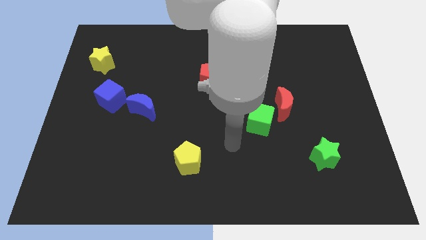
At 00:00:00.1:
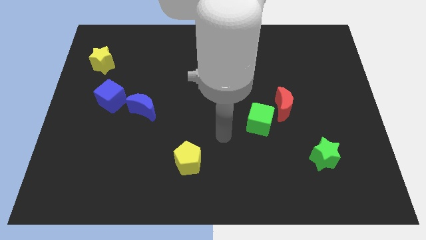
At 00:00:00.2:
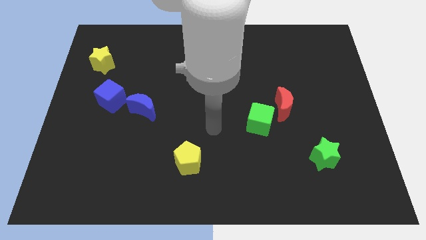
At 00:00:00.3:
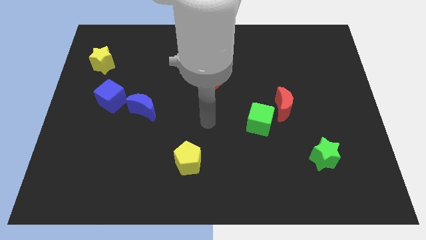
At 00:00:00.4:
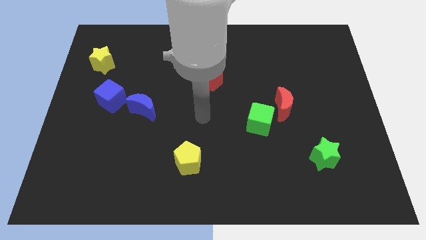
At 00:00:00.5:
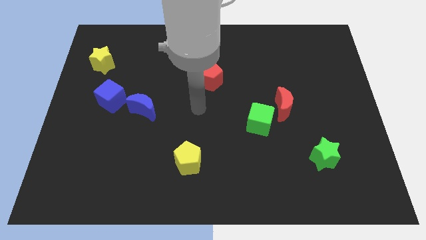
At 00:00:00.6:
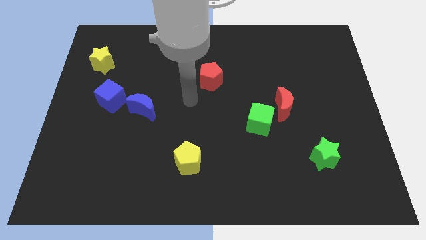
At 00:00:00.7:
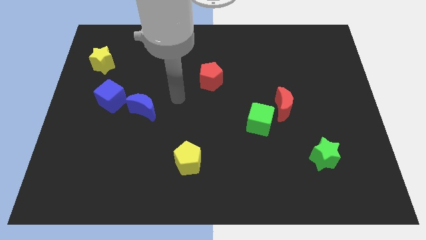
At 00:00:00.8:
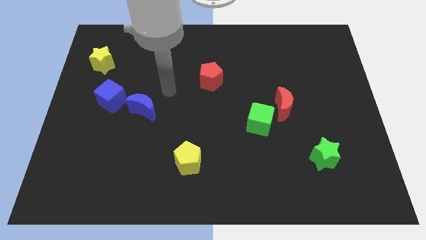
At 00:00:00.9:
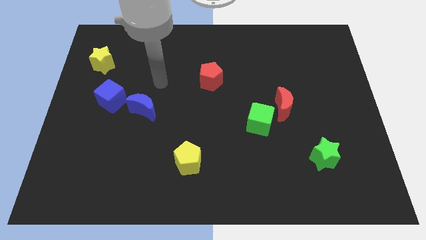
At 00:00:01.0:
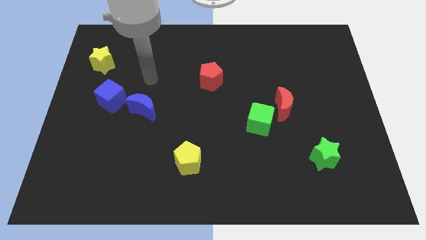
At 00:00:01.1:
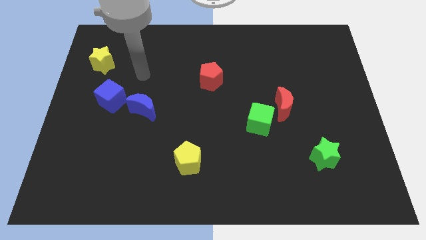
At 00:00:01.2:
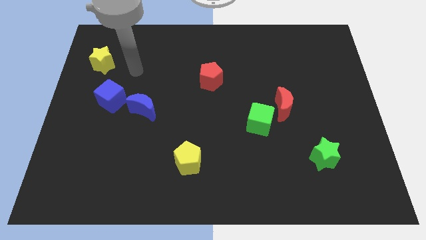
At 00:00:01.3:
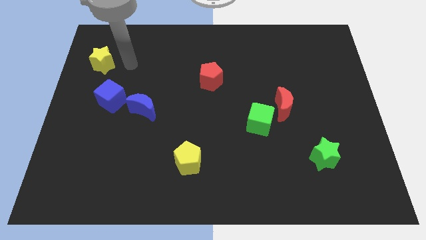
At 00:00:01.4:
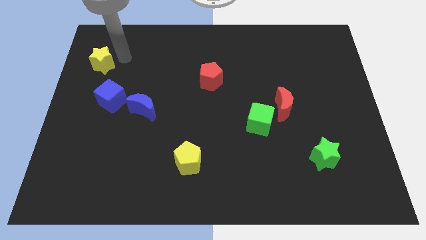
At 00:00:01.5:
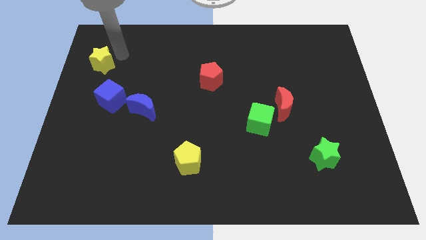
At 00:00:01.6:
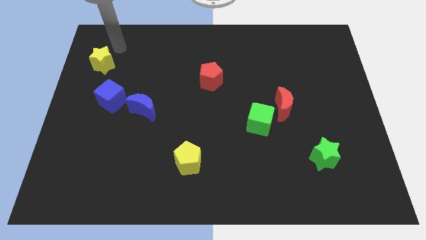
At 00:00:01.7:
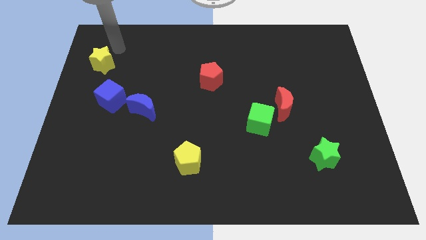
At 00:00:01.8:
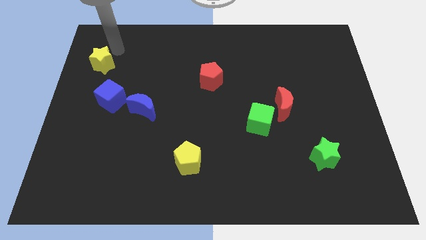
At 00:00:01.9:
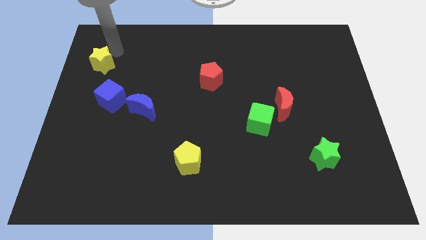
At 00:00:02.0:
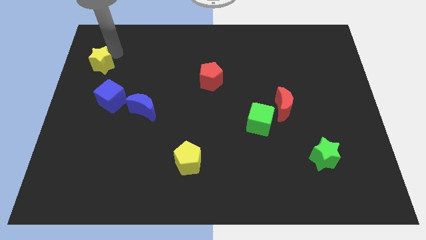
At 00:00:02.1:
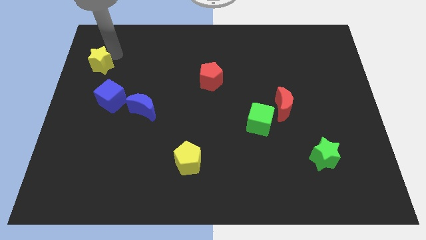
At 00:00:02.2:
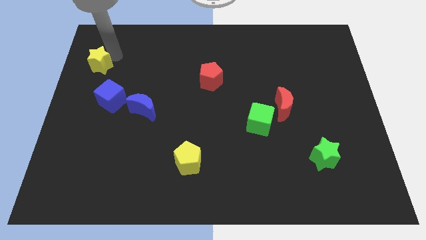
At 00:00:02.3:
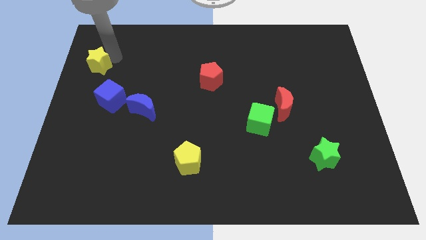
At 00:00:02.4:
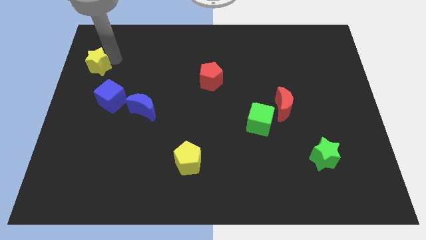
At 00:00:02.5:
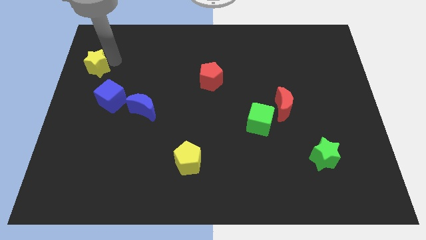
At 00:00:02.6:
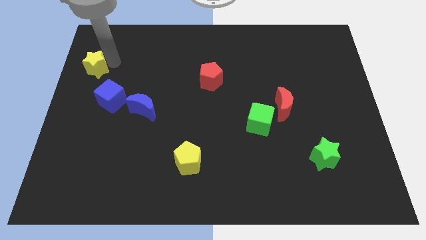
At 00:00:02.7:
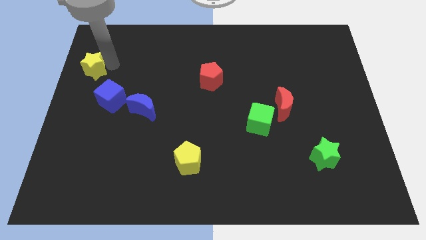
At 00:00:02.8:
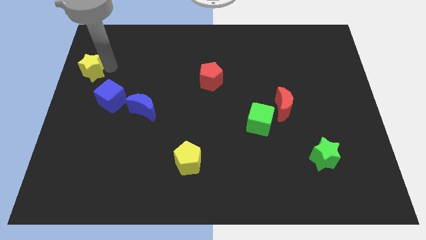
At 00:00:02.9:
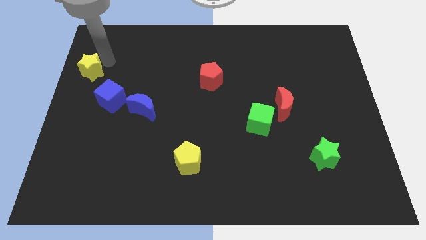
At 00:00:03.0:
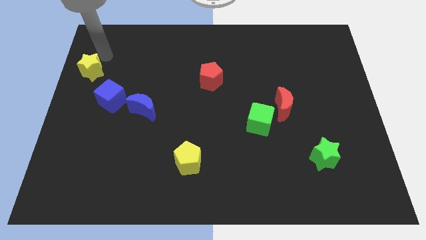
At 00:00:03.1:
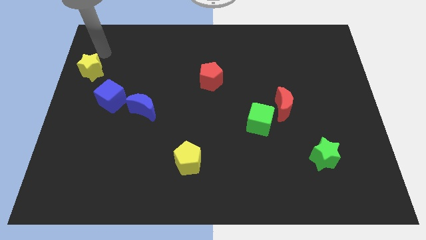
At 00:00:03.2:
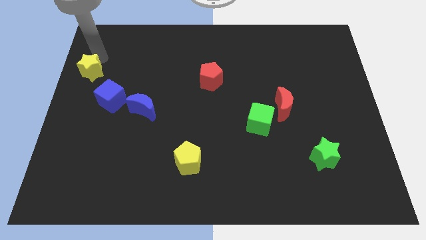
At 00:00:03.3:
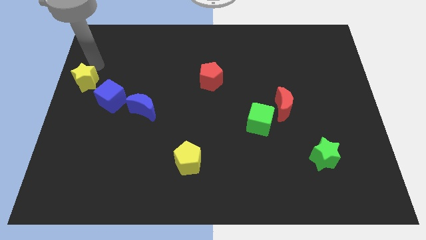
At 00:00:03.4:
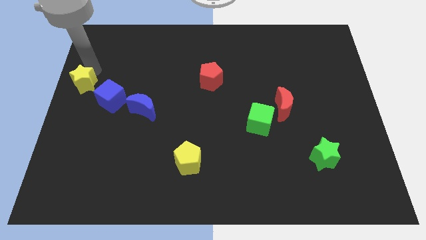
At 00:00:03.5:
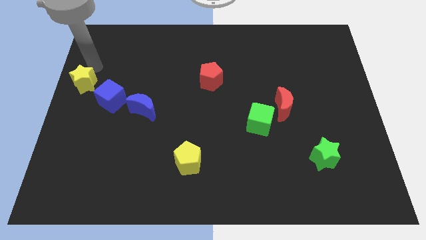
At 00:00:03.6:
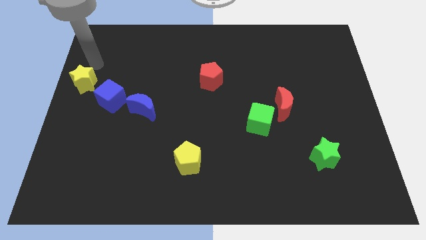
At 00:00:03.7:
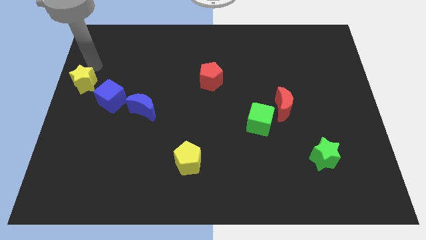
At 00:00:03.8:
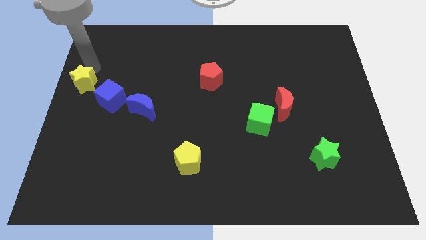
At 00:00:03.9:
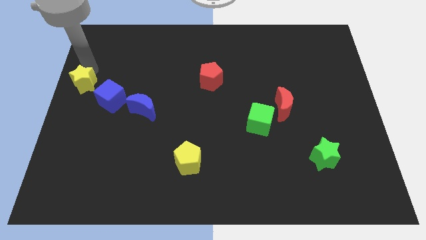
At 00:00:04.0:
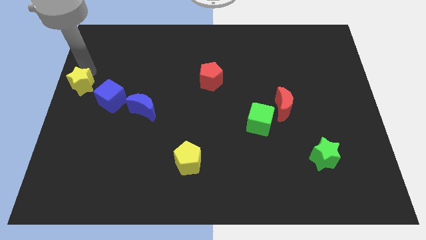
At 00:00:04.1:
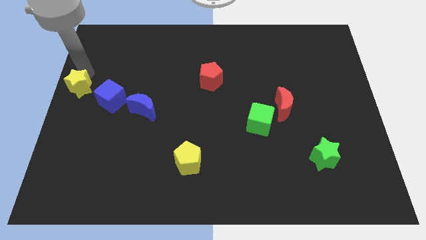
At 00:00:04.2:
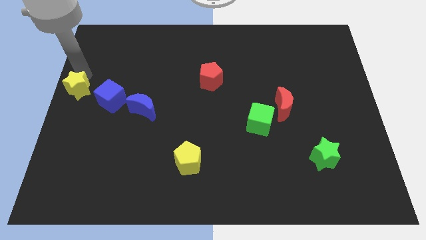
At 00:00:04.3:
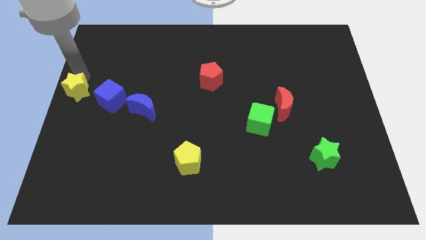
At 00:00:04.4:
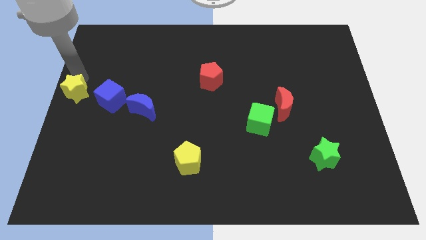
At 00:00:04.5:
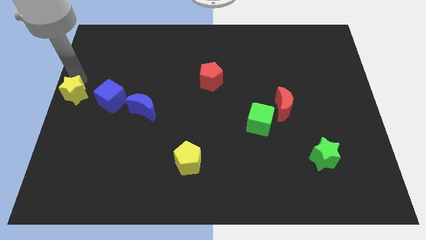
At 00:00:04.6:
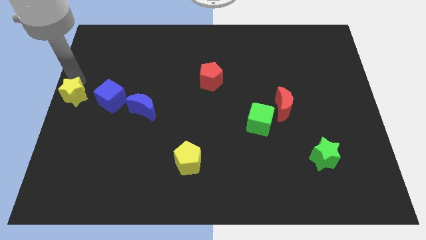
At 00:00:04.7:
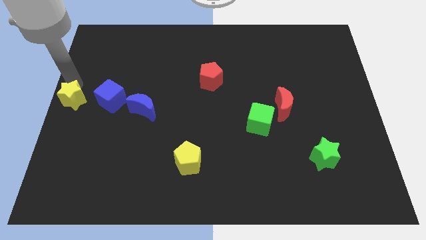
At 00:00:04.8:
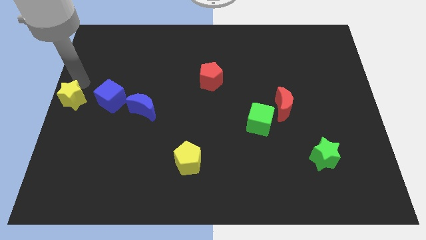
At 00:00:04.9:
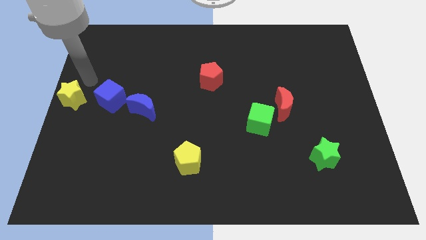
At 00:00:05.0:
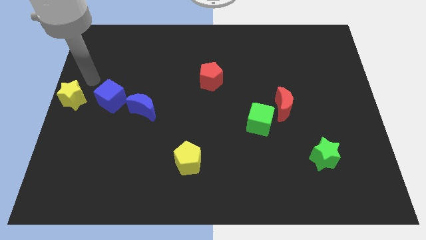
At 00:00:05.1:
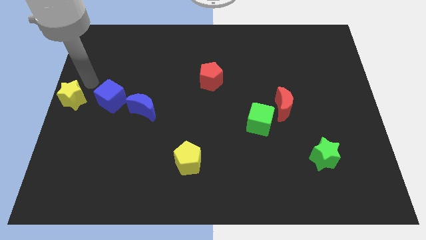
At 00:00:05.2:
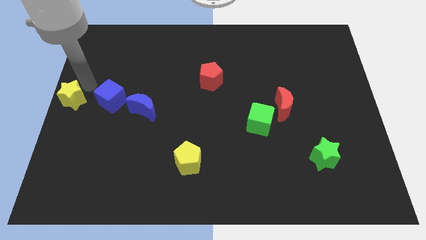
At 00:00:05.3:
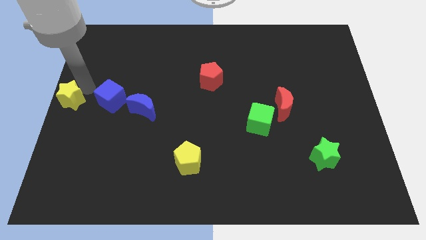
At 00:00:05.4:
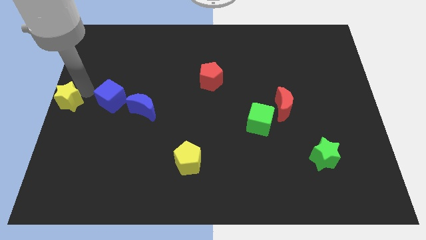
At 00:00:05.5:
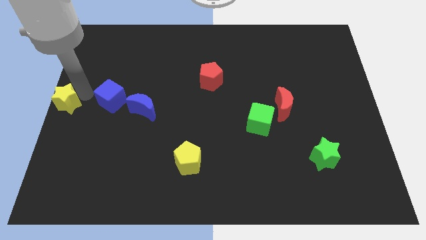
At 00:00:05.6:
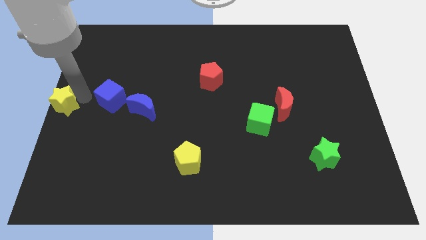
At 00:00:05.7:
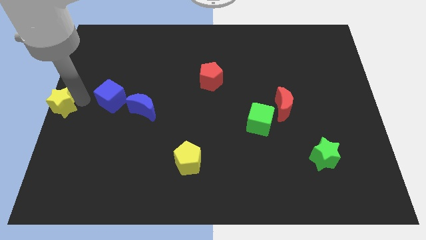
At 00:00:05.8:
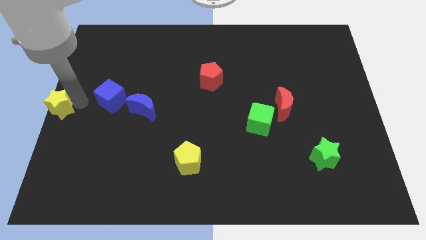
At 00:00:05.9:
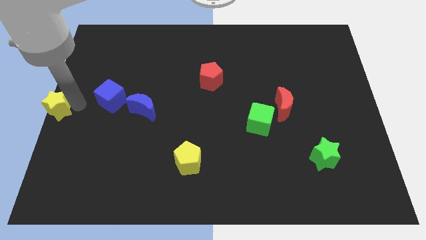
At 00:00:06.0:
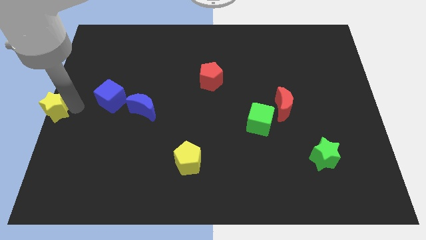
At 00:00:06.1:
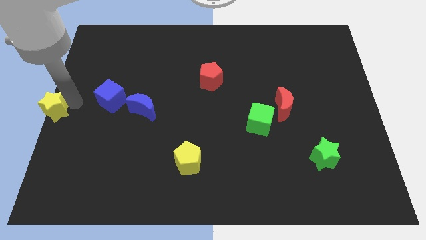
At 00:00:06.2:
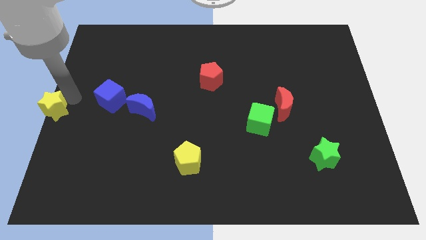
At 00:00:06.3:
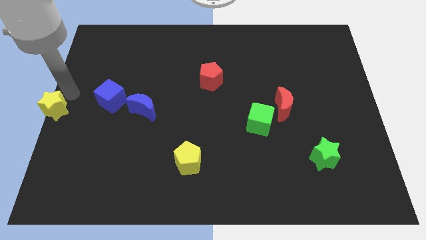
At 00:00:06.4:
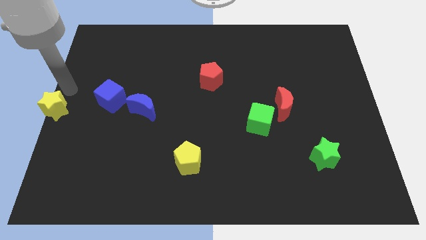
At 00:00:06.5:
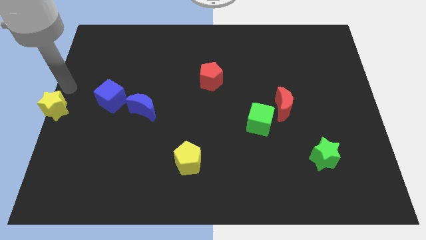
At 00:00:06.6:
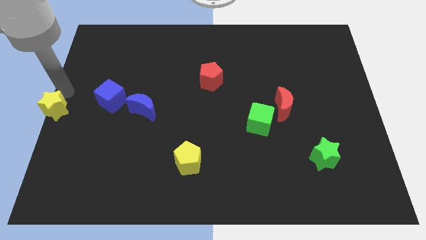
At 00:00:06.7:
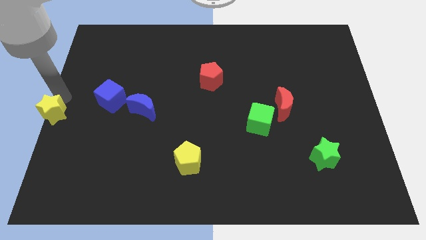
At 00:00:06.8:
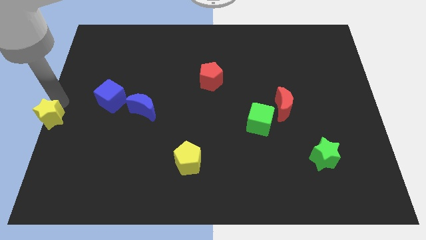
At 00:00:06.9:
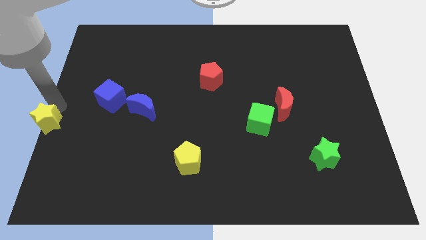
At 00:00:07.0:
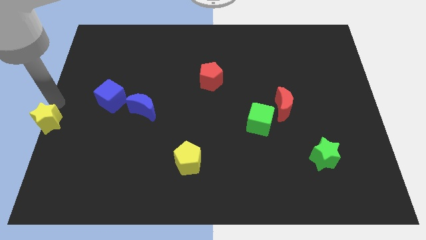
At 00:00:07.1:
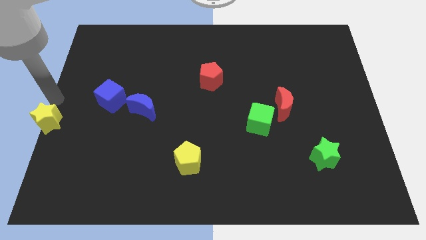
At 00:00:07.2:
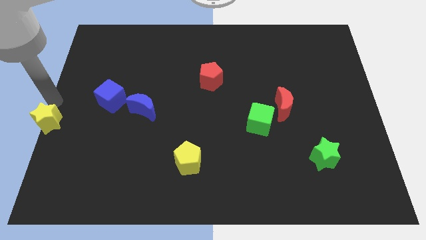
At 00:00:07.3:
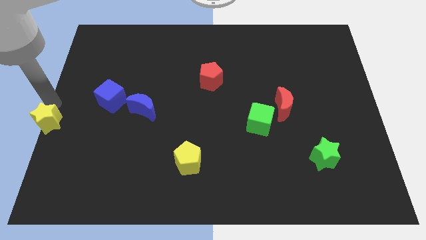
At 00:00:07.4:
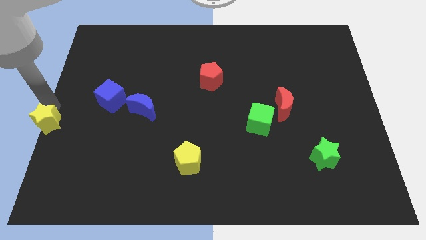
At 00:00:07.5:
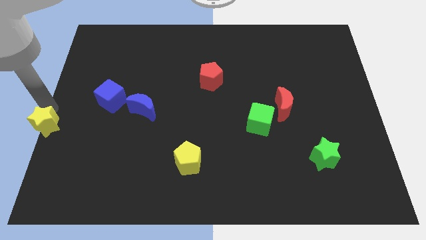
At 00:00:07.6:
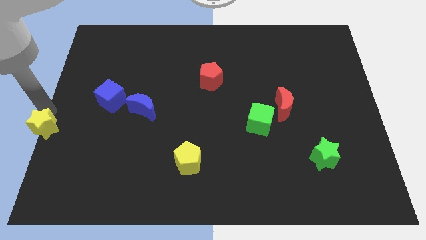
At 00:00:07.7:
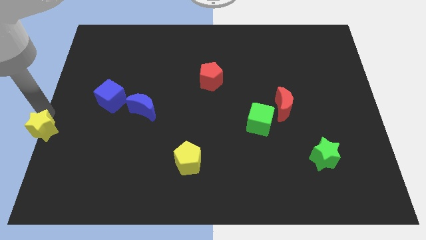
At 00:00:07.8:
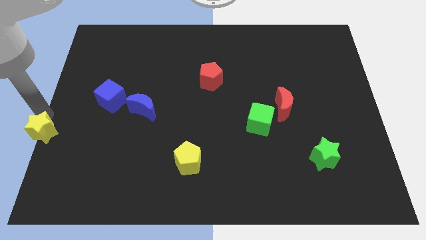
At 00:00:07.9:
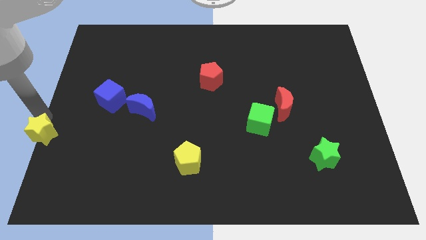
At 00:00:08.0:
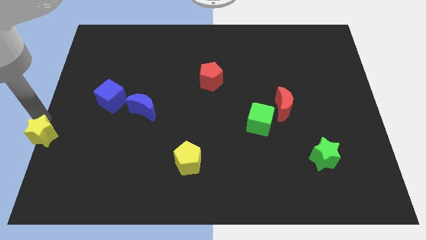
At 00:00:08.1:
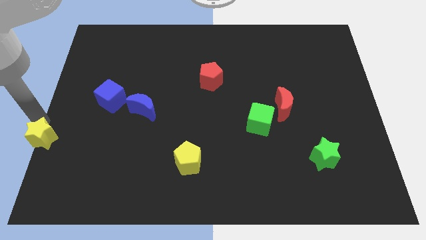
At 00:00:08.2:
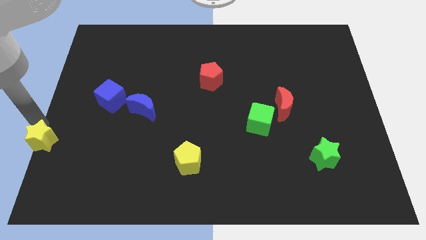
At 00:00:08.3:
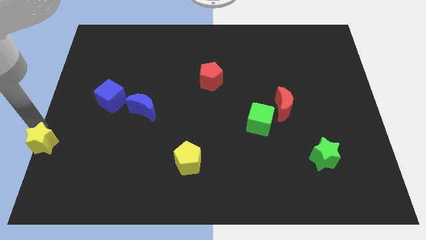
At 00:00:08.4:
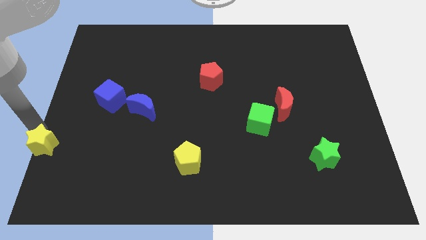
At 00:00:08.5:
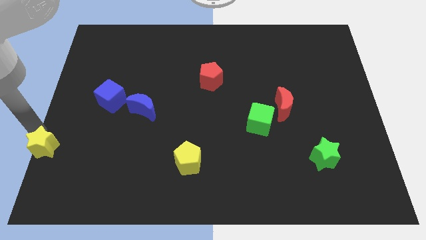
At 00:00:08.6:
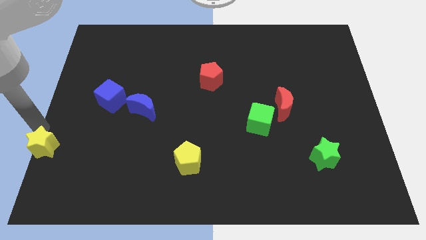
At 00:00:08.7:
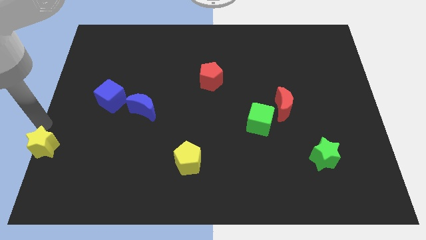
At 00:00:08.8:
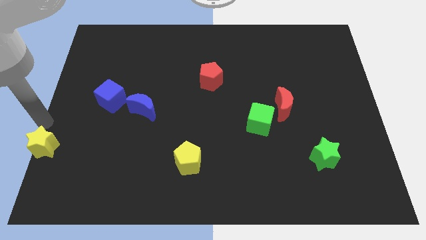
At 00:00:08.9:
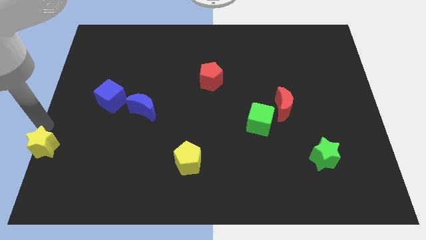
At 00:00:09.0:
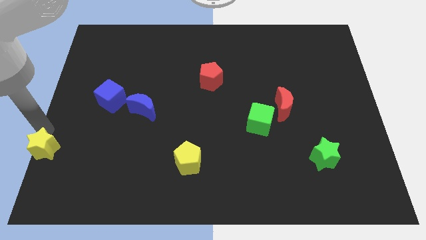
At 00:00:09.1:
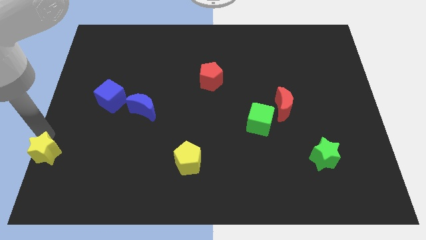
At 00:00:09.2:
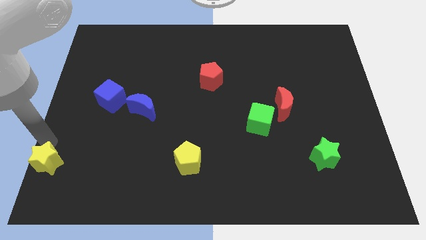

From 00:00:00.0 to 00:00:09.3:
push the yellow star to the bottom left corner
